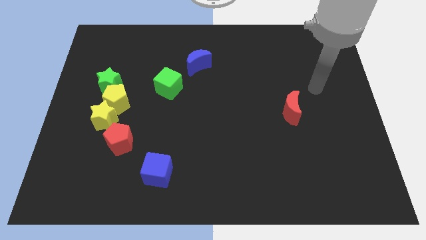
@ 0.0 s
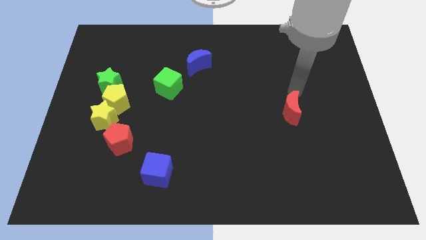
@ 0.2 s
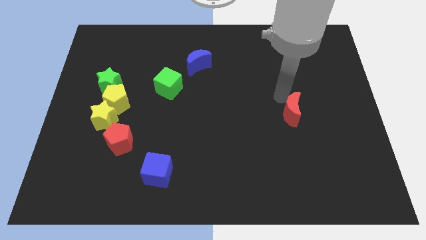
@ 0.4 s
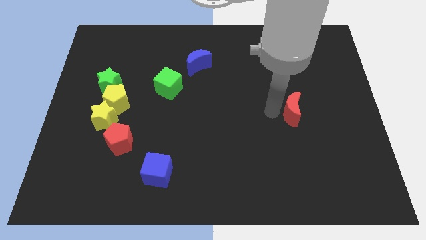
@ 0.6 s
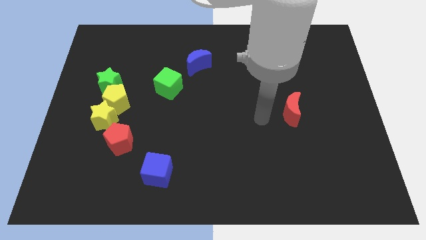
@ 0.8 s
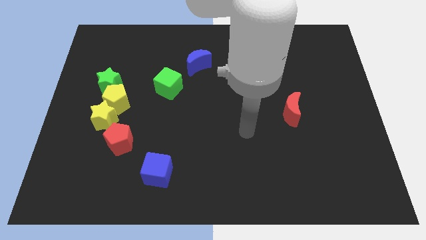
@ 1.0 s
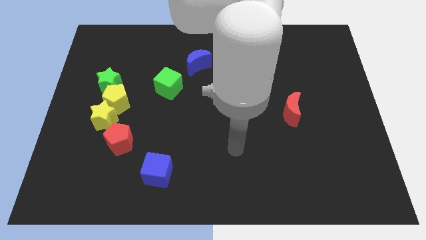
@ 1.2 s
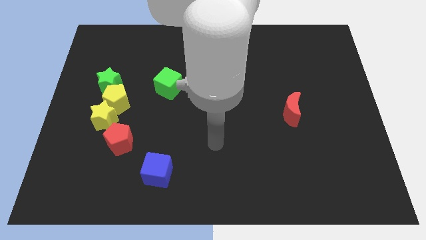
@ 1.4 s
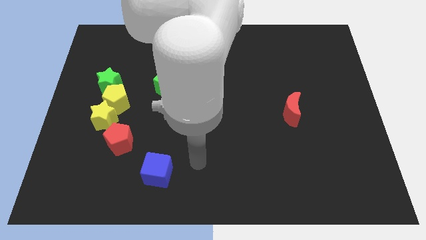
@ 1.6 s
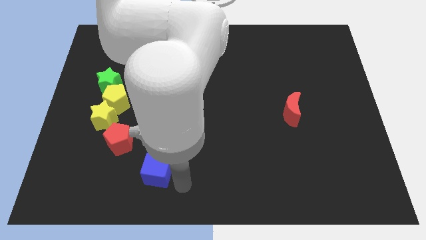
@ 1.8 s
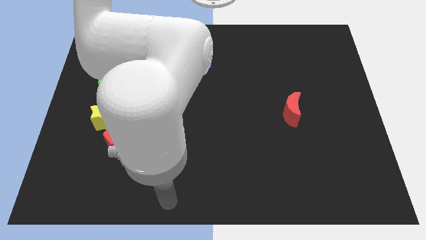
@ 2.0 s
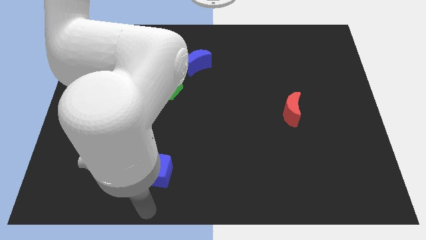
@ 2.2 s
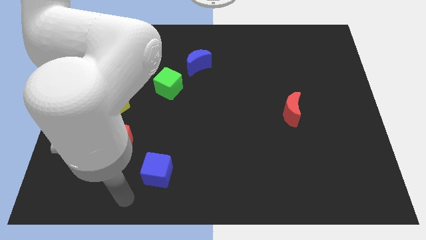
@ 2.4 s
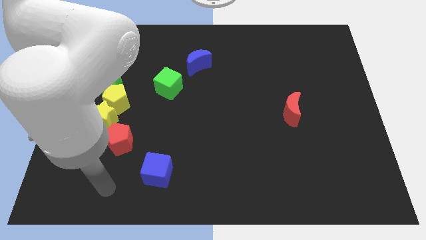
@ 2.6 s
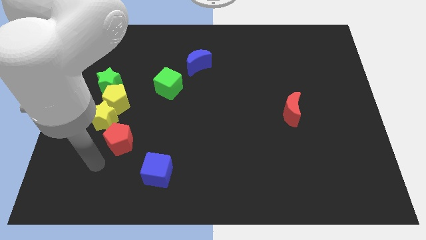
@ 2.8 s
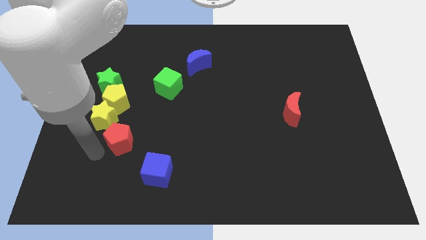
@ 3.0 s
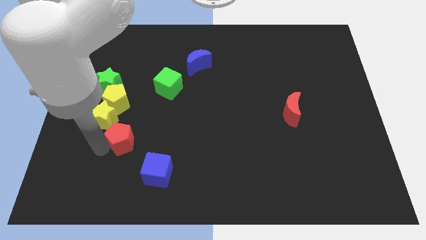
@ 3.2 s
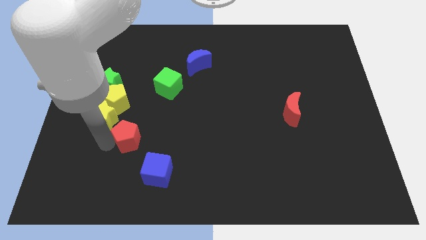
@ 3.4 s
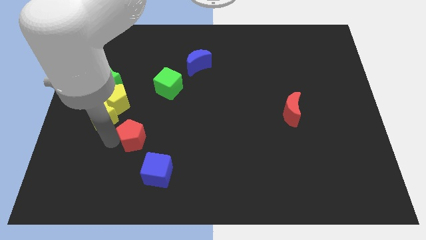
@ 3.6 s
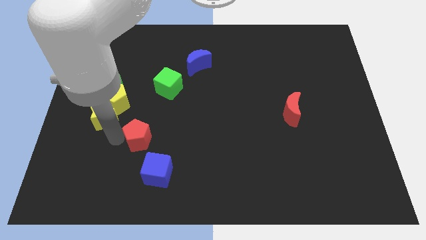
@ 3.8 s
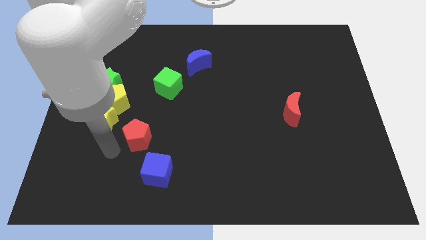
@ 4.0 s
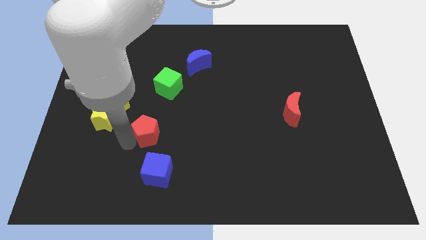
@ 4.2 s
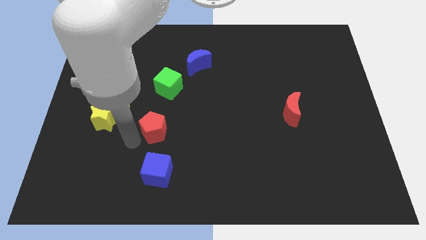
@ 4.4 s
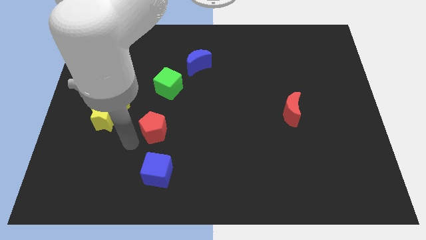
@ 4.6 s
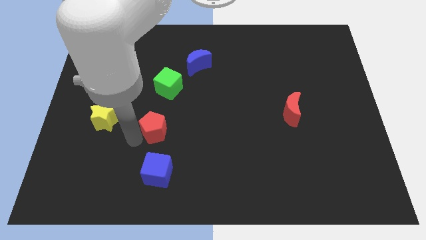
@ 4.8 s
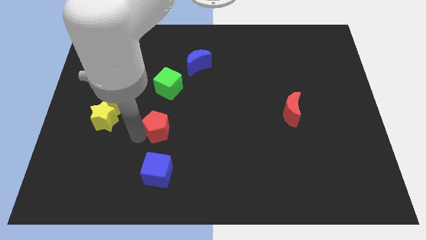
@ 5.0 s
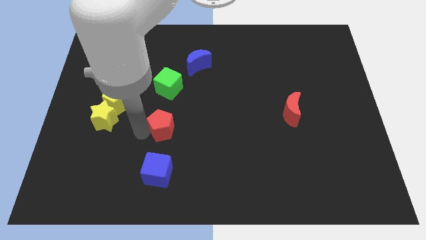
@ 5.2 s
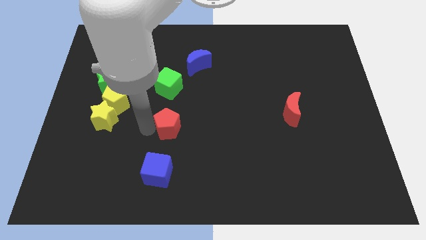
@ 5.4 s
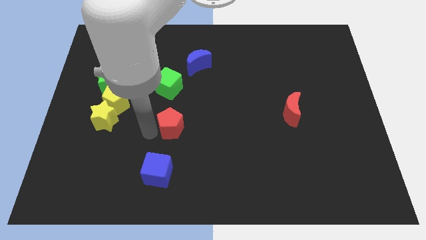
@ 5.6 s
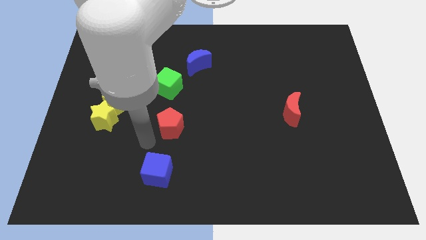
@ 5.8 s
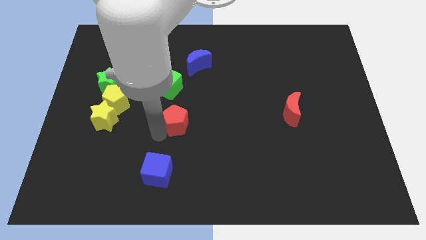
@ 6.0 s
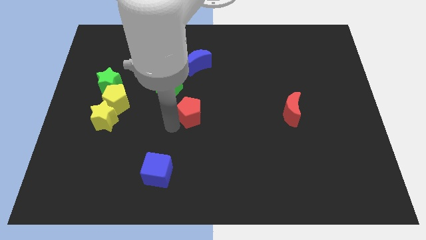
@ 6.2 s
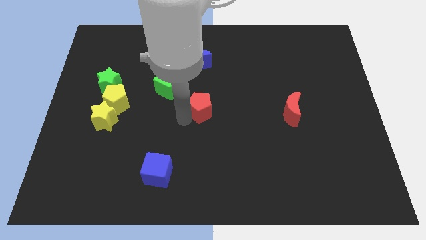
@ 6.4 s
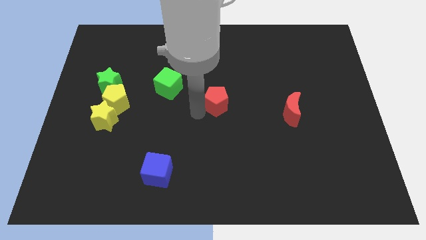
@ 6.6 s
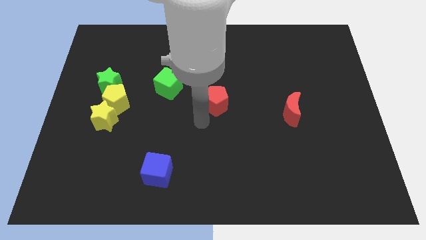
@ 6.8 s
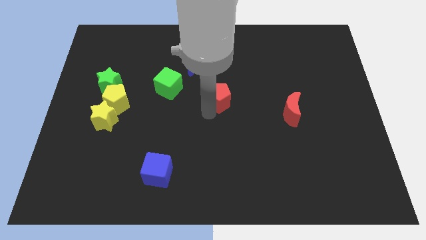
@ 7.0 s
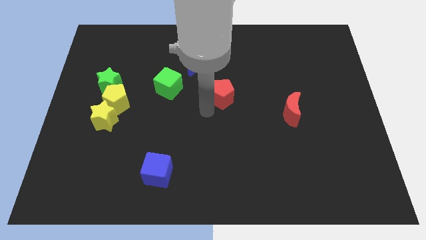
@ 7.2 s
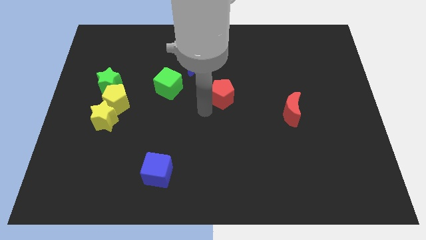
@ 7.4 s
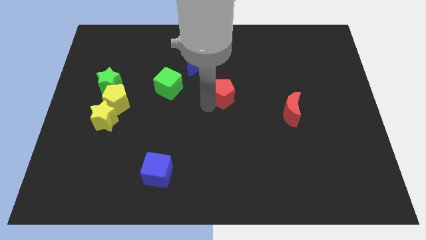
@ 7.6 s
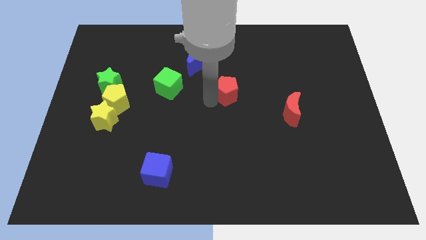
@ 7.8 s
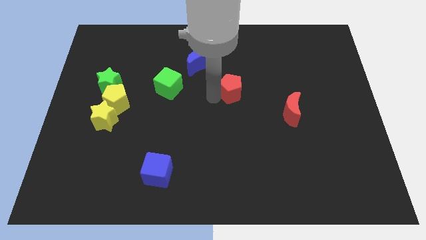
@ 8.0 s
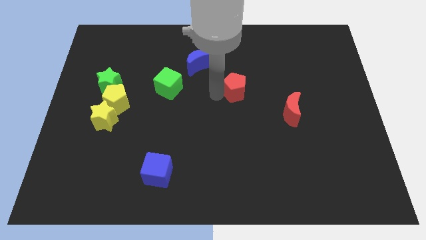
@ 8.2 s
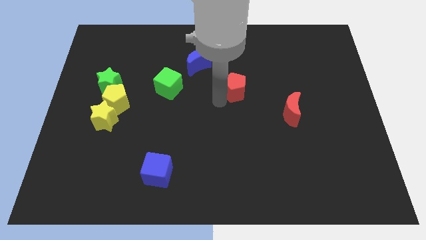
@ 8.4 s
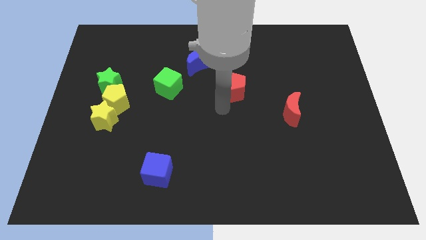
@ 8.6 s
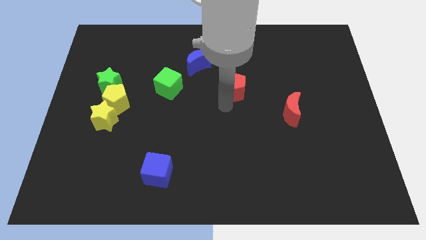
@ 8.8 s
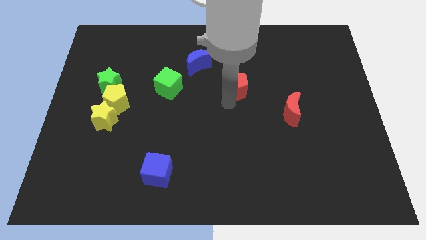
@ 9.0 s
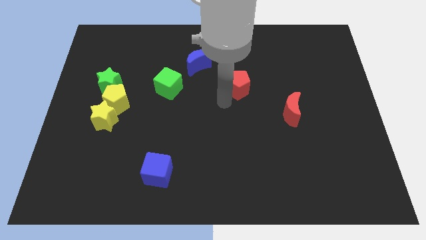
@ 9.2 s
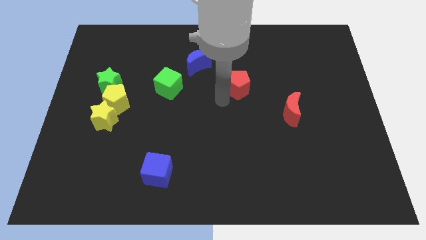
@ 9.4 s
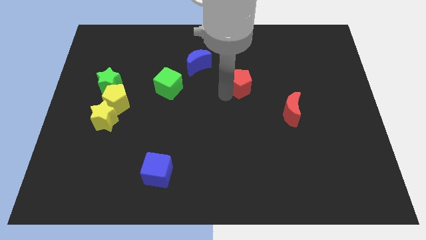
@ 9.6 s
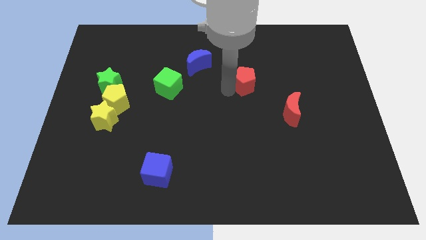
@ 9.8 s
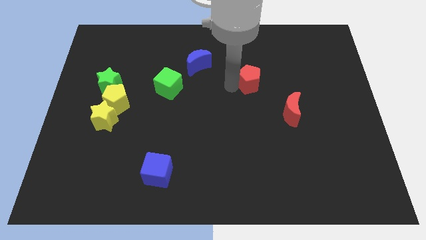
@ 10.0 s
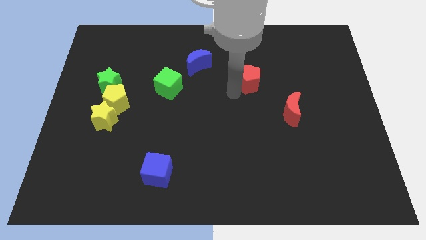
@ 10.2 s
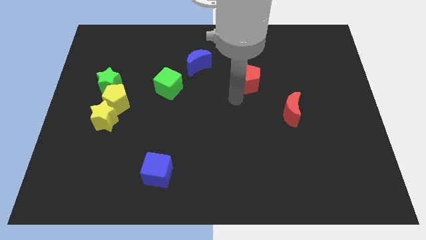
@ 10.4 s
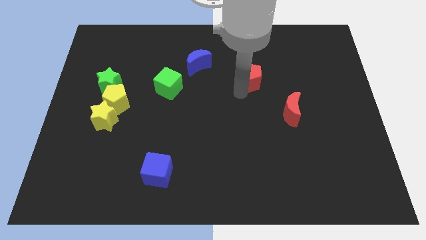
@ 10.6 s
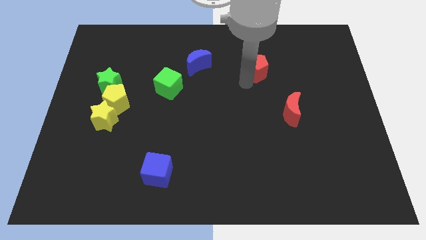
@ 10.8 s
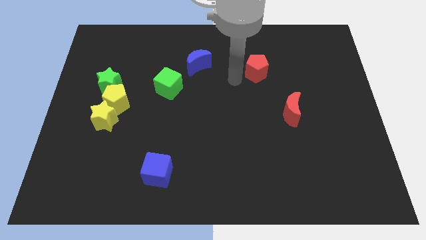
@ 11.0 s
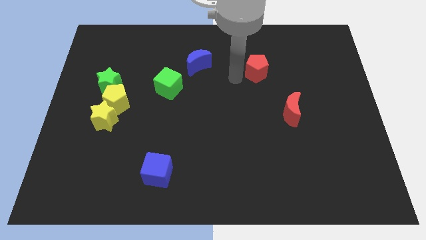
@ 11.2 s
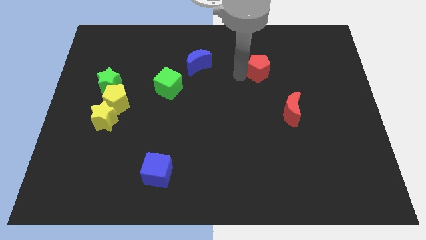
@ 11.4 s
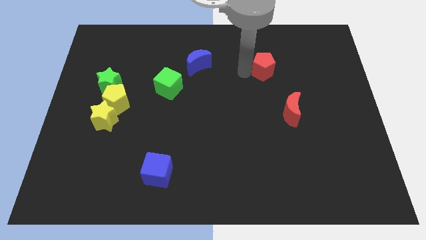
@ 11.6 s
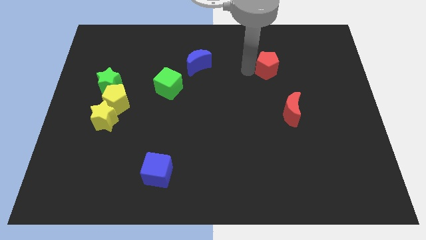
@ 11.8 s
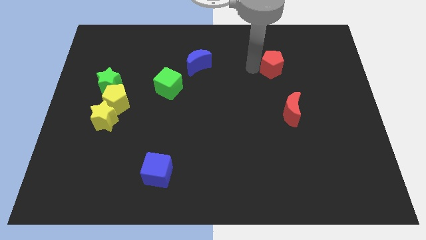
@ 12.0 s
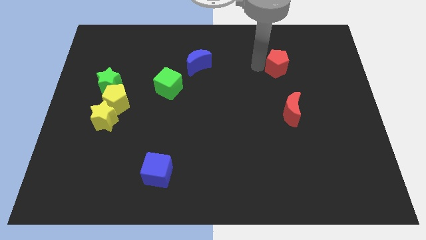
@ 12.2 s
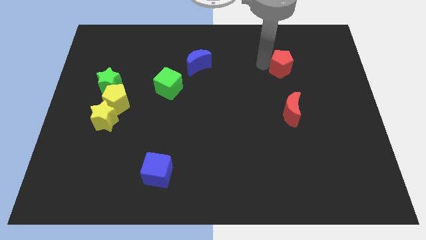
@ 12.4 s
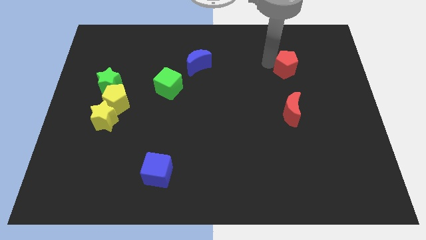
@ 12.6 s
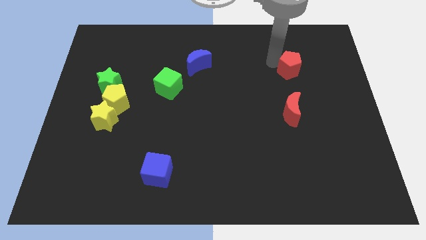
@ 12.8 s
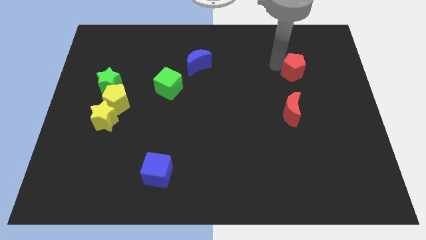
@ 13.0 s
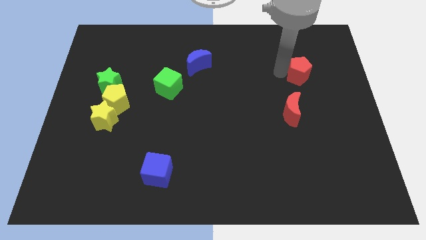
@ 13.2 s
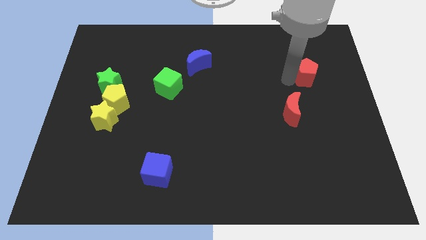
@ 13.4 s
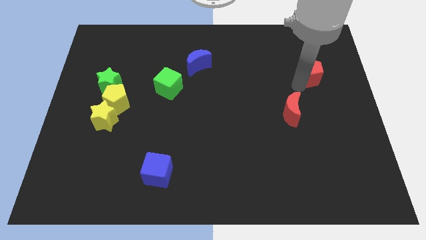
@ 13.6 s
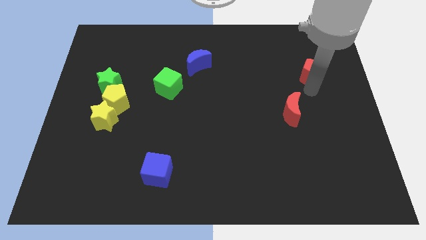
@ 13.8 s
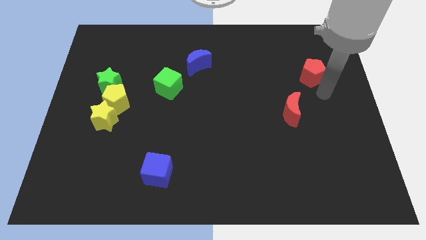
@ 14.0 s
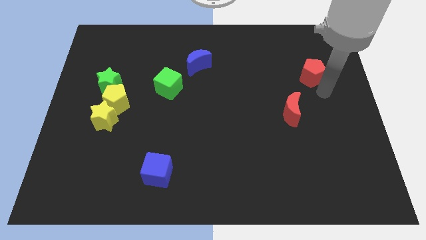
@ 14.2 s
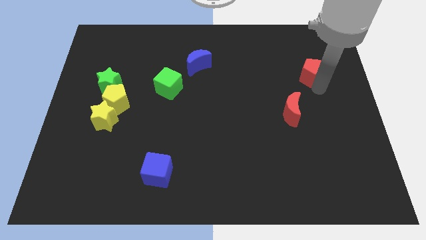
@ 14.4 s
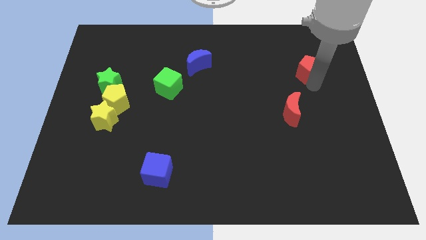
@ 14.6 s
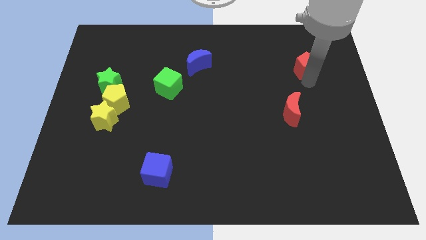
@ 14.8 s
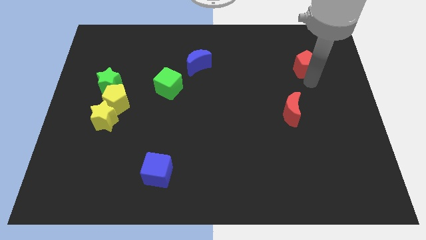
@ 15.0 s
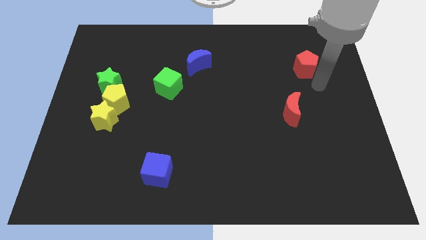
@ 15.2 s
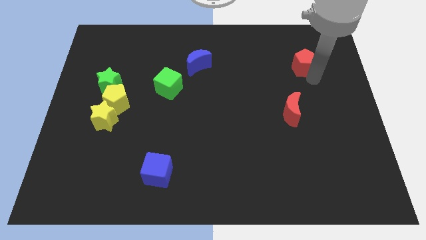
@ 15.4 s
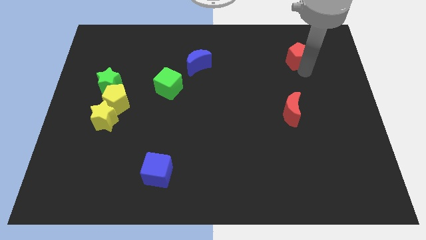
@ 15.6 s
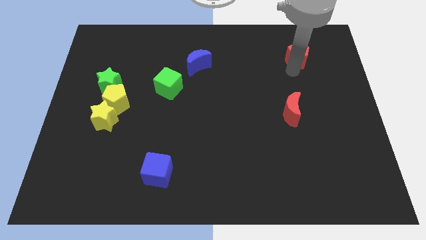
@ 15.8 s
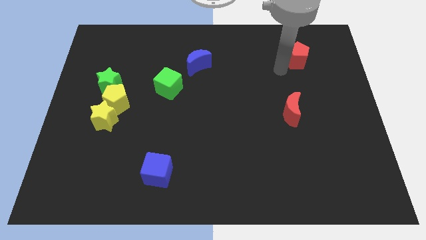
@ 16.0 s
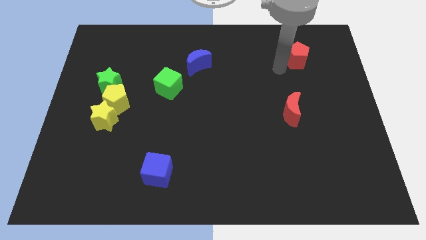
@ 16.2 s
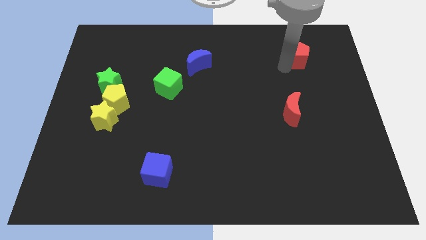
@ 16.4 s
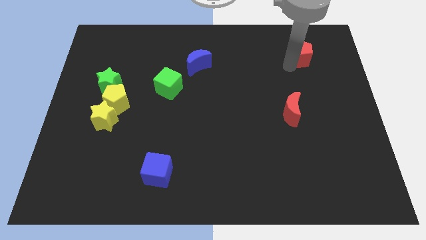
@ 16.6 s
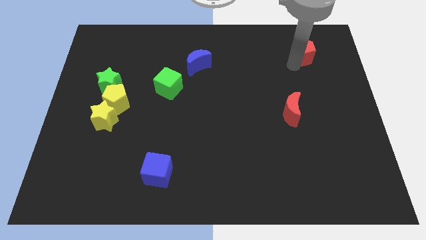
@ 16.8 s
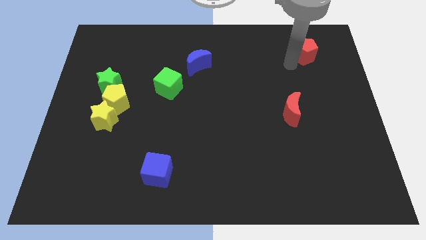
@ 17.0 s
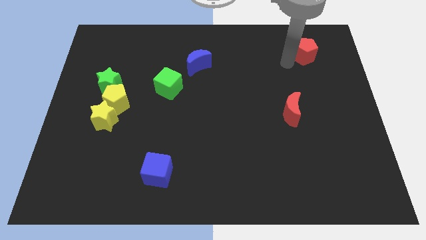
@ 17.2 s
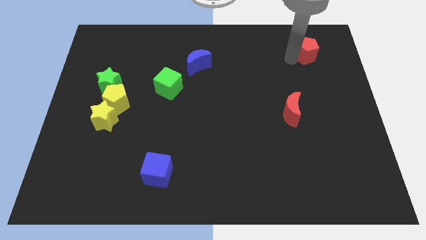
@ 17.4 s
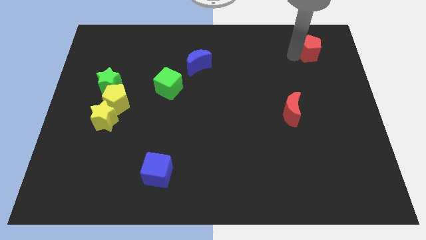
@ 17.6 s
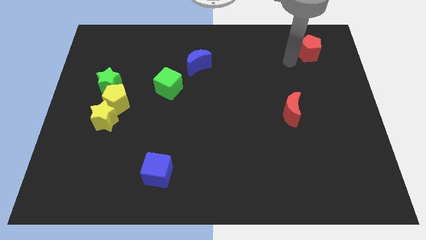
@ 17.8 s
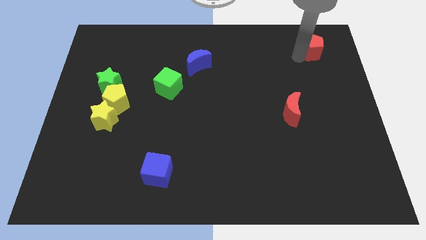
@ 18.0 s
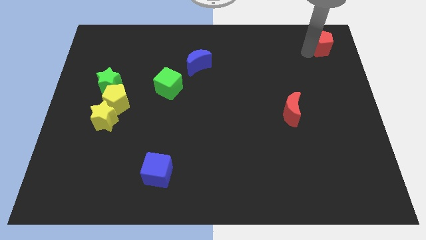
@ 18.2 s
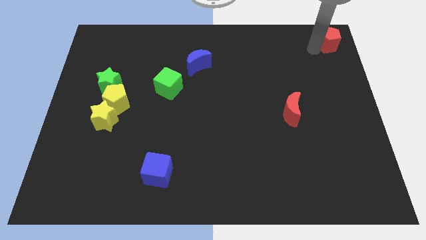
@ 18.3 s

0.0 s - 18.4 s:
push the red pentagon to the top right
